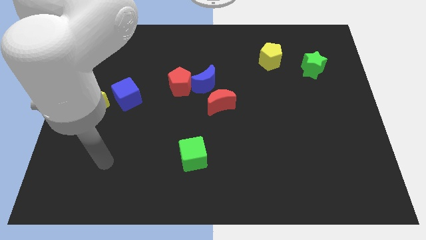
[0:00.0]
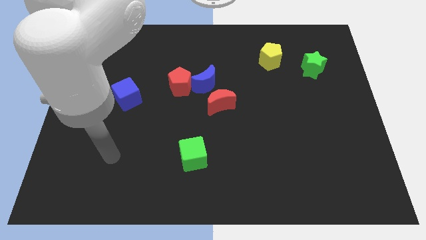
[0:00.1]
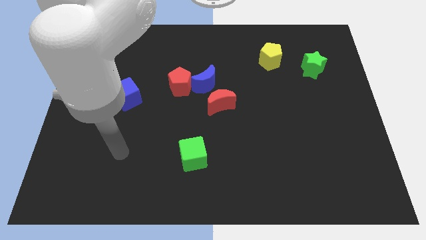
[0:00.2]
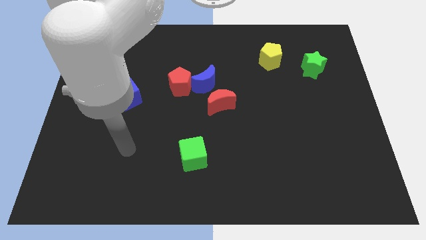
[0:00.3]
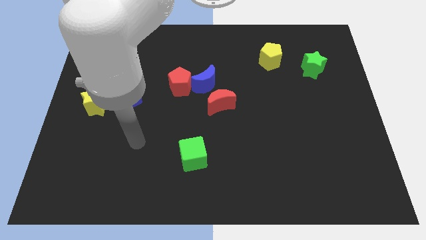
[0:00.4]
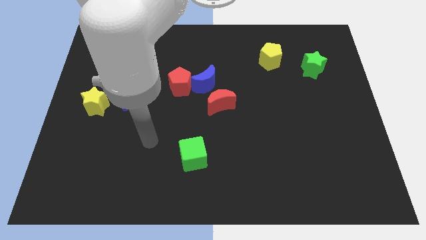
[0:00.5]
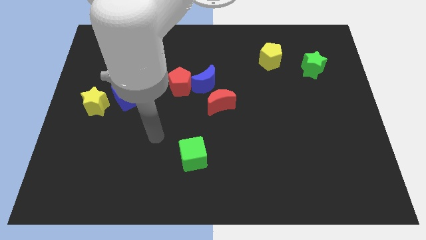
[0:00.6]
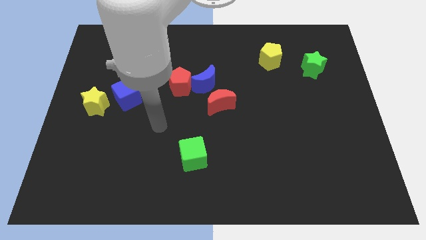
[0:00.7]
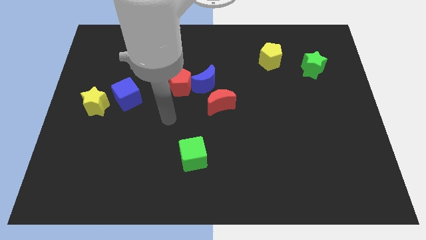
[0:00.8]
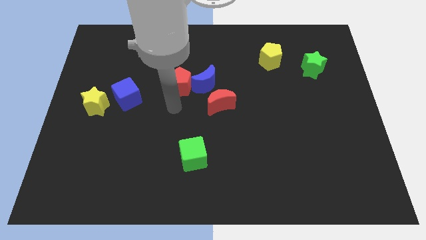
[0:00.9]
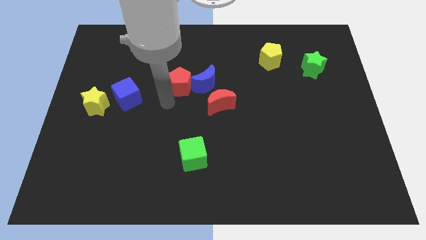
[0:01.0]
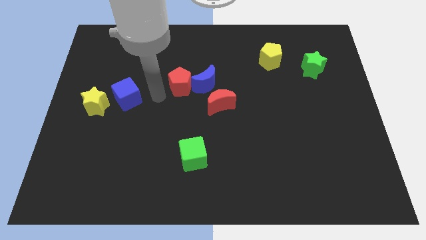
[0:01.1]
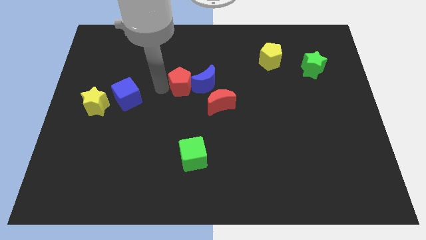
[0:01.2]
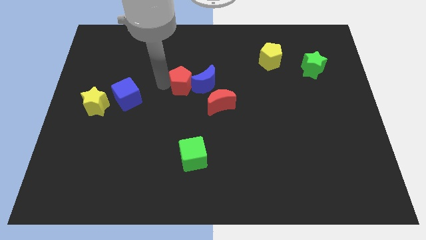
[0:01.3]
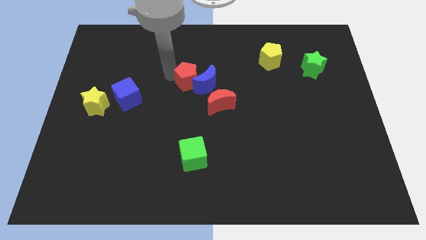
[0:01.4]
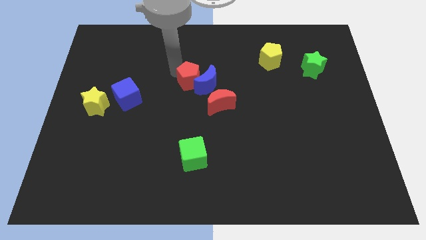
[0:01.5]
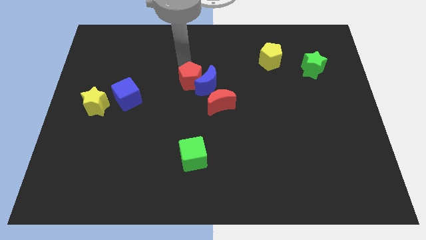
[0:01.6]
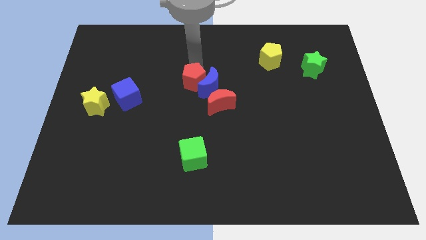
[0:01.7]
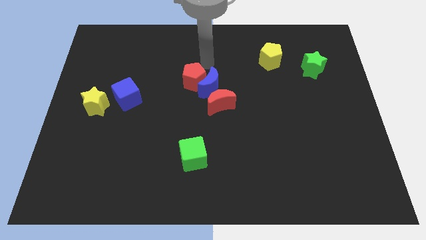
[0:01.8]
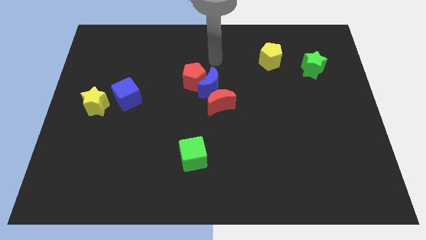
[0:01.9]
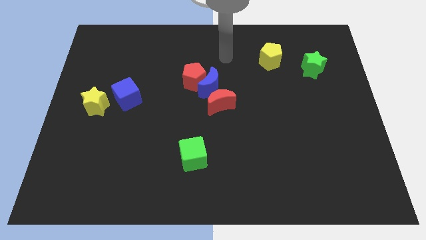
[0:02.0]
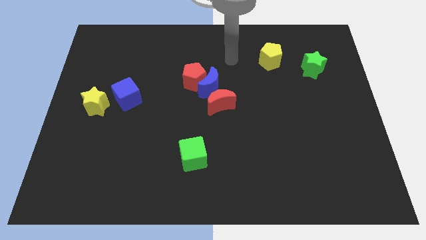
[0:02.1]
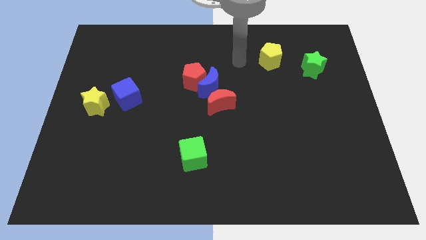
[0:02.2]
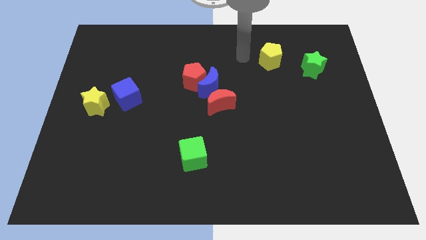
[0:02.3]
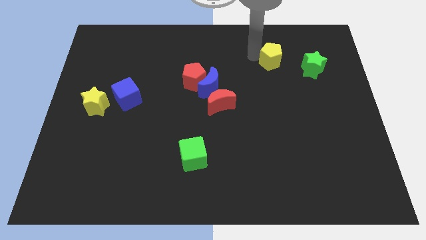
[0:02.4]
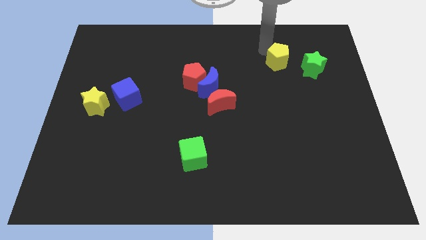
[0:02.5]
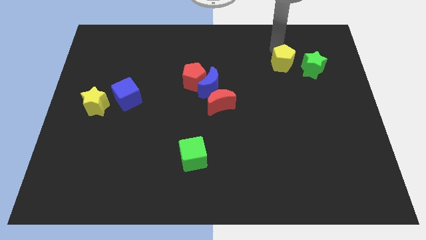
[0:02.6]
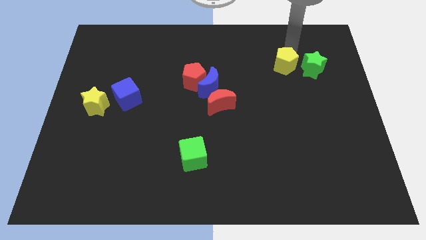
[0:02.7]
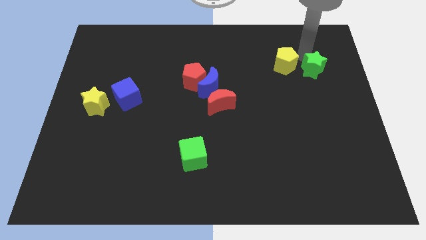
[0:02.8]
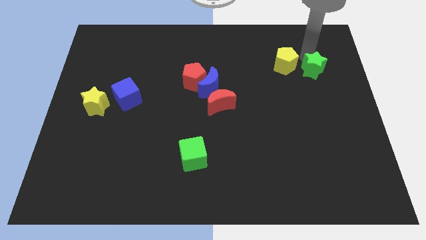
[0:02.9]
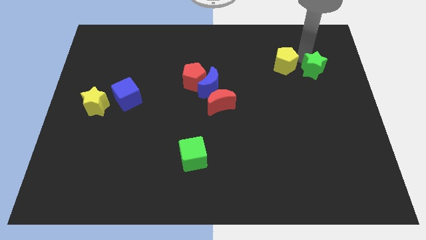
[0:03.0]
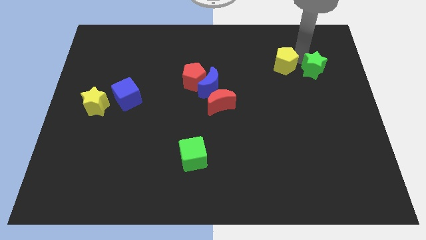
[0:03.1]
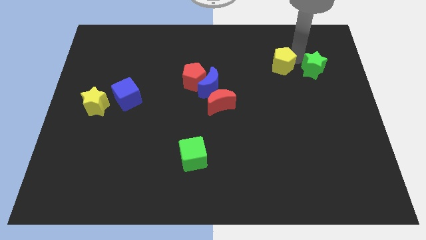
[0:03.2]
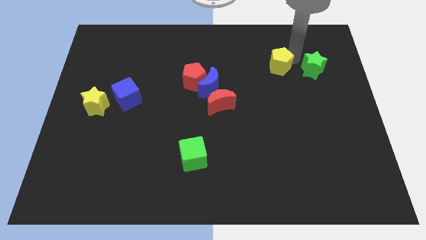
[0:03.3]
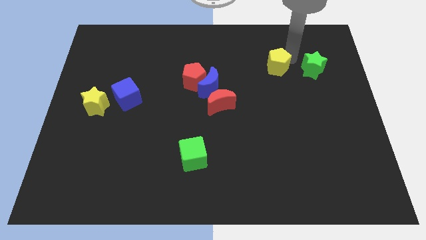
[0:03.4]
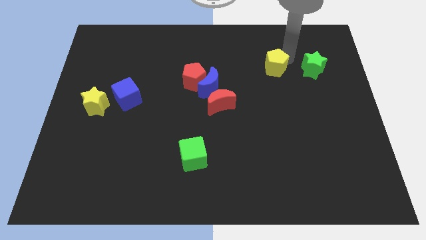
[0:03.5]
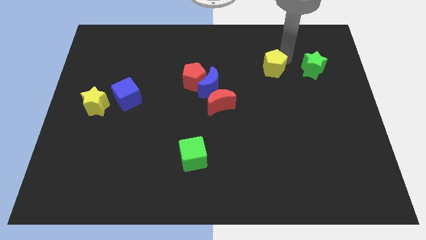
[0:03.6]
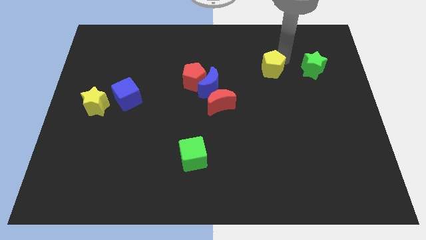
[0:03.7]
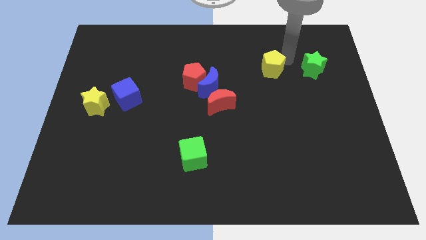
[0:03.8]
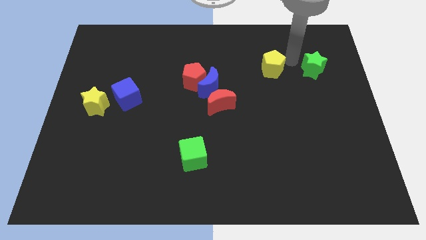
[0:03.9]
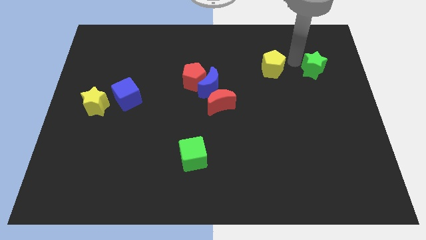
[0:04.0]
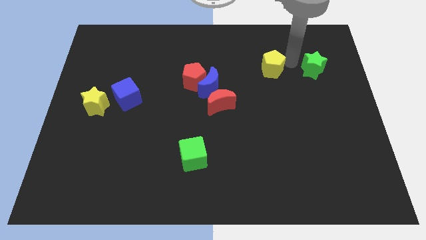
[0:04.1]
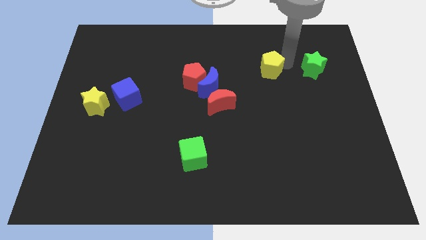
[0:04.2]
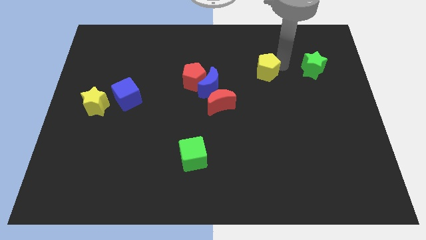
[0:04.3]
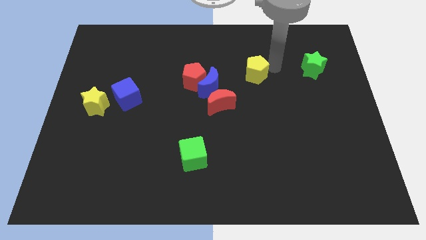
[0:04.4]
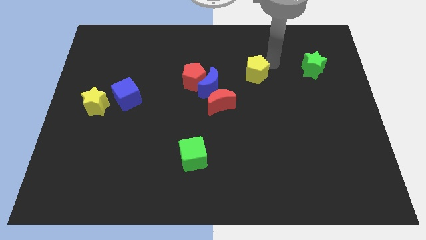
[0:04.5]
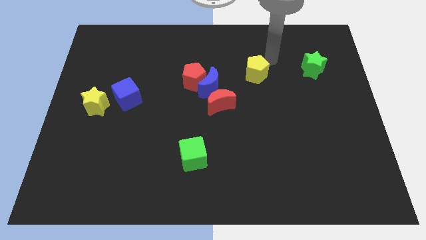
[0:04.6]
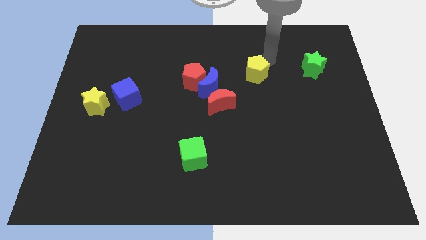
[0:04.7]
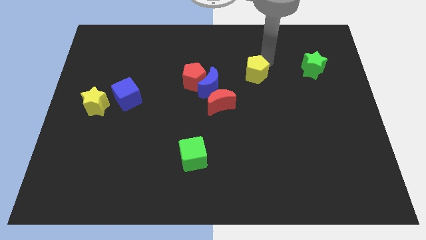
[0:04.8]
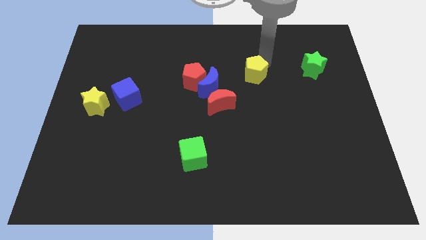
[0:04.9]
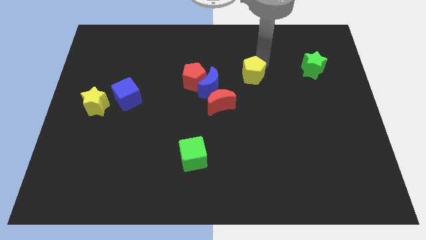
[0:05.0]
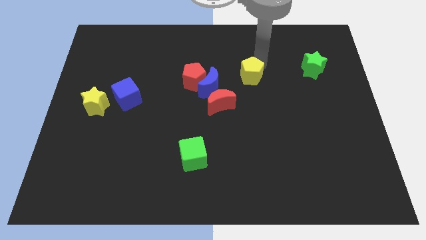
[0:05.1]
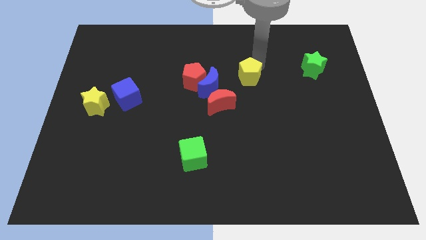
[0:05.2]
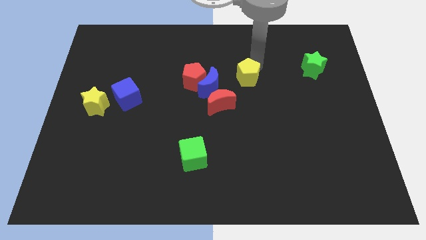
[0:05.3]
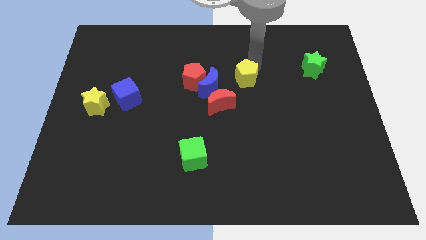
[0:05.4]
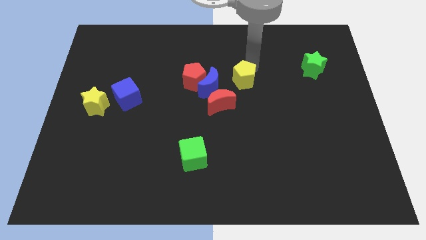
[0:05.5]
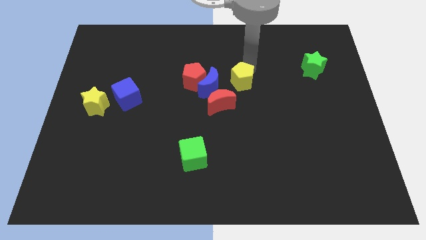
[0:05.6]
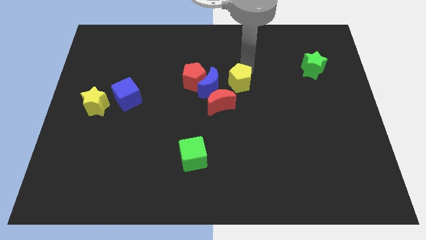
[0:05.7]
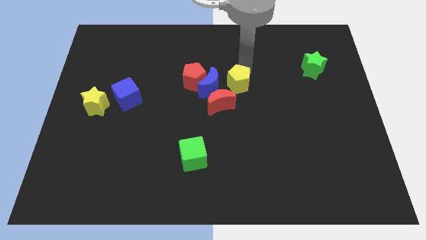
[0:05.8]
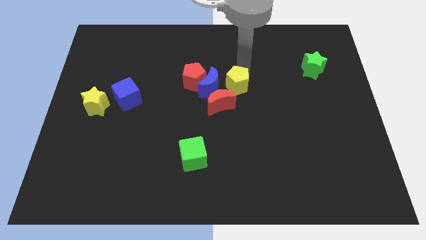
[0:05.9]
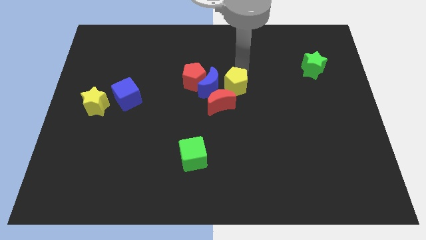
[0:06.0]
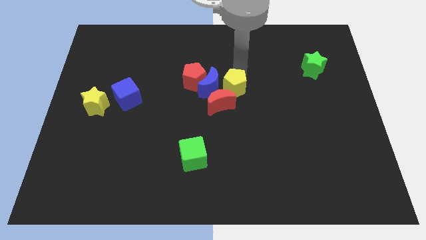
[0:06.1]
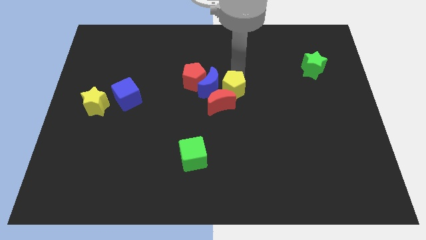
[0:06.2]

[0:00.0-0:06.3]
put the yellow pentagon close to the red moon

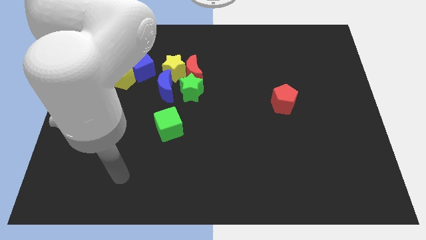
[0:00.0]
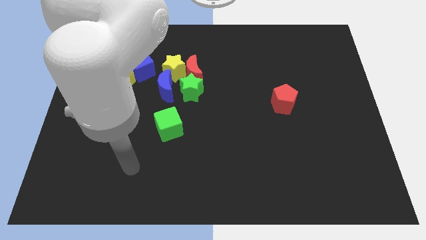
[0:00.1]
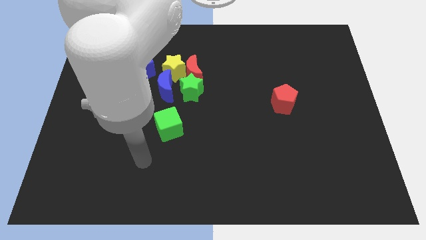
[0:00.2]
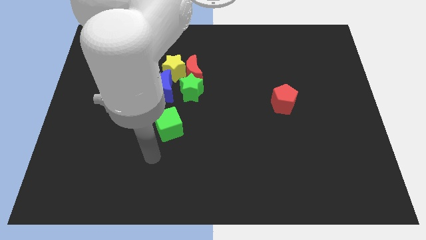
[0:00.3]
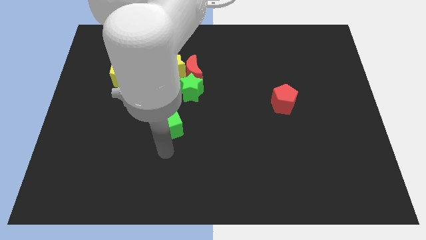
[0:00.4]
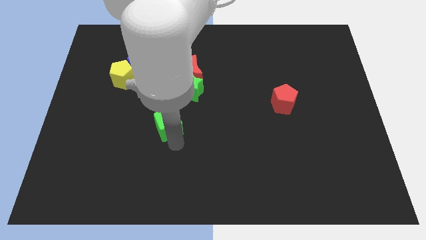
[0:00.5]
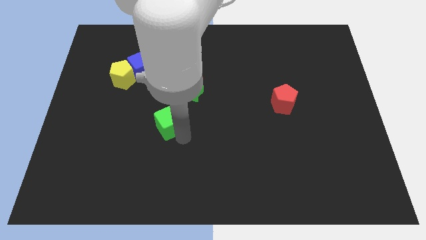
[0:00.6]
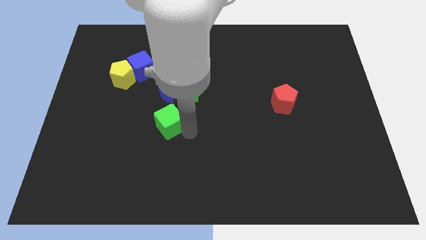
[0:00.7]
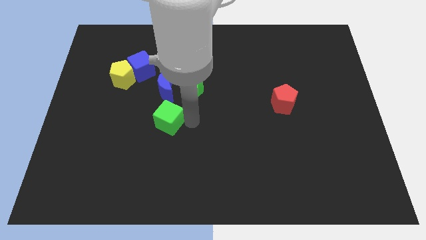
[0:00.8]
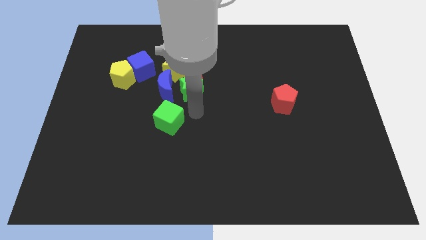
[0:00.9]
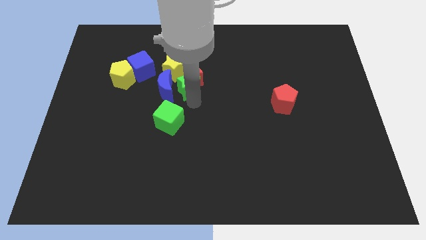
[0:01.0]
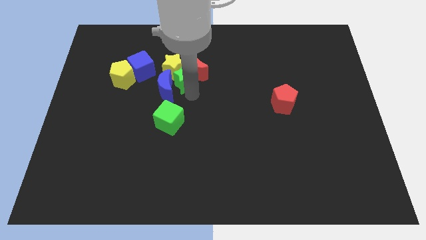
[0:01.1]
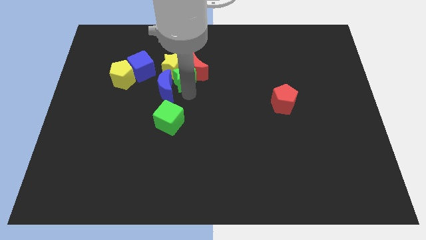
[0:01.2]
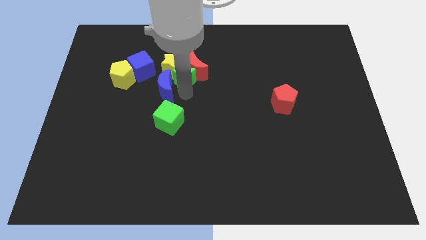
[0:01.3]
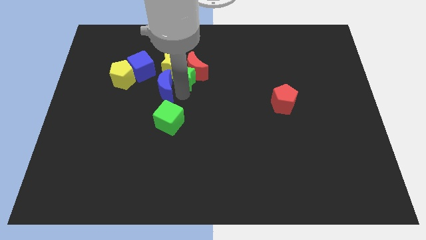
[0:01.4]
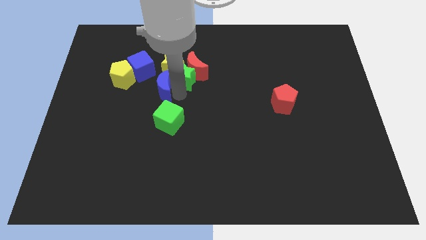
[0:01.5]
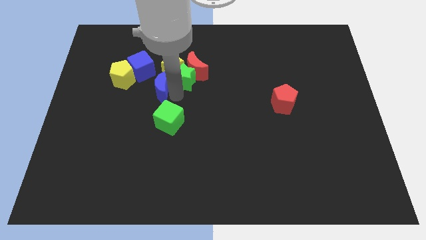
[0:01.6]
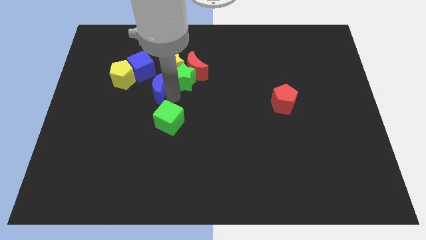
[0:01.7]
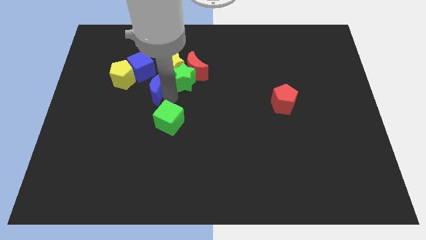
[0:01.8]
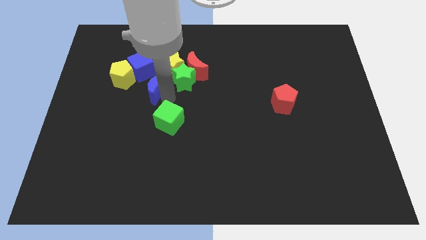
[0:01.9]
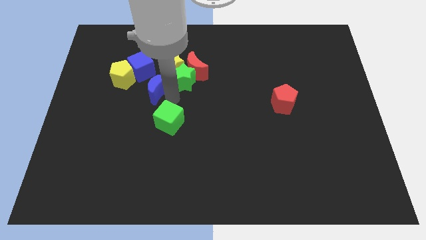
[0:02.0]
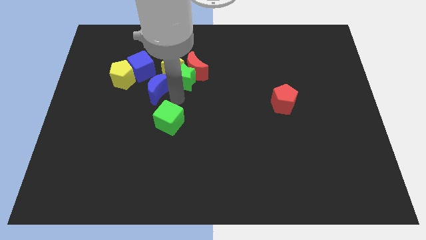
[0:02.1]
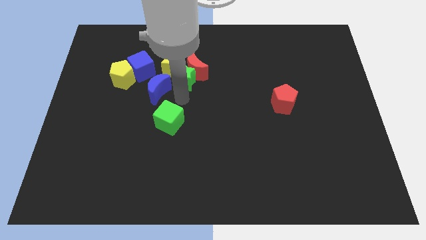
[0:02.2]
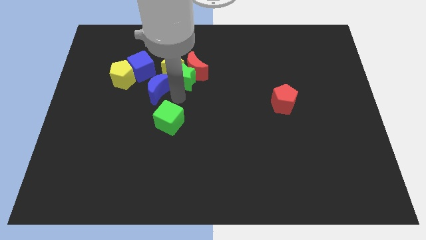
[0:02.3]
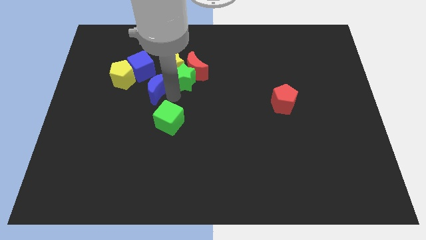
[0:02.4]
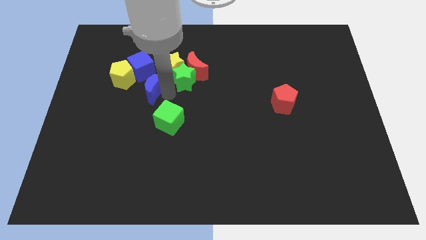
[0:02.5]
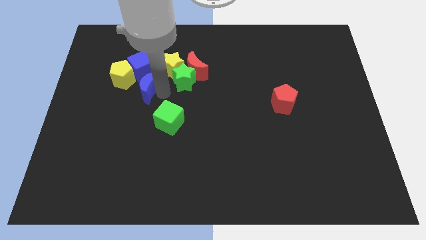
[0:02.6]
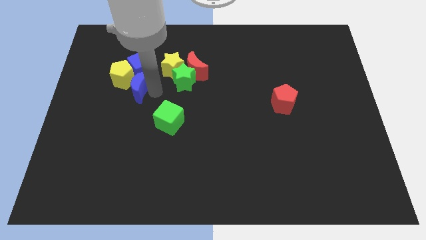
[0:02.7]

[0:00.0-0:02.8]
move the blue moon next to the yellow pentagon
